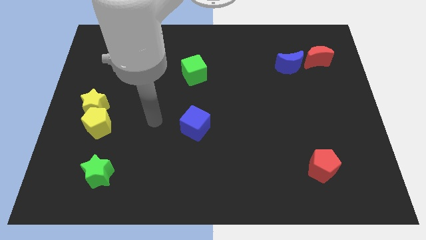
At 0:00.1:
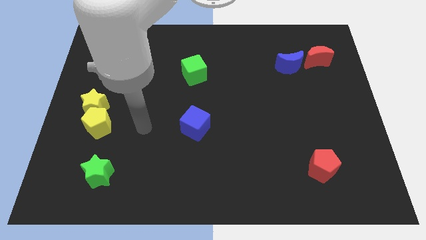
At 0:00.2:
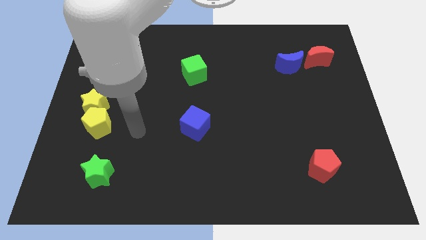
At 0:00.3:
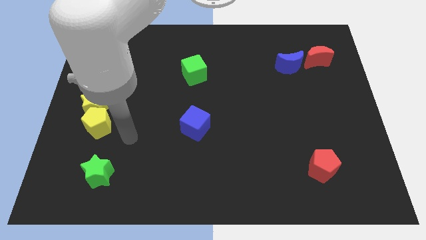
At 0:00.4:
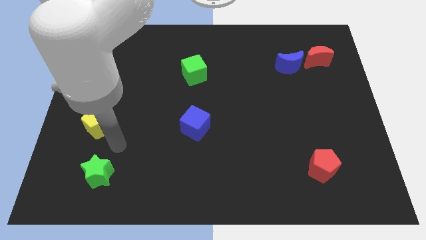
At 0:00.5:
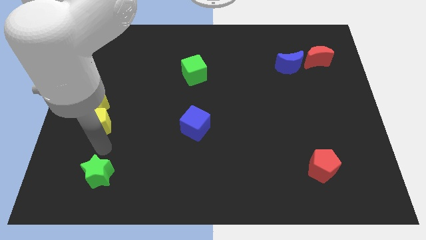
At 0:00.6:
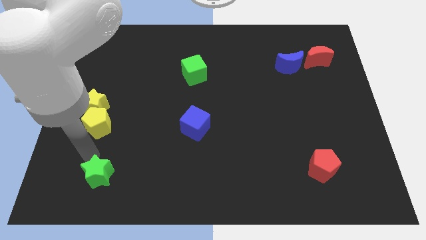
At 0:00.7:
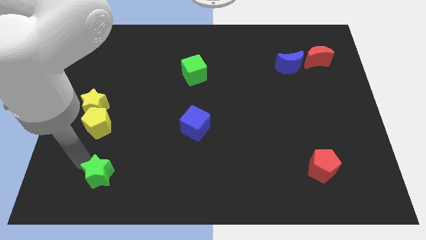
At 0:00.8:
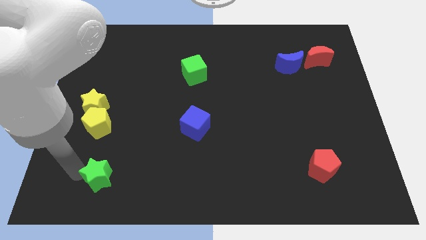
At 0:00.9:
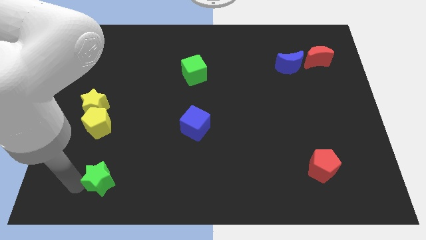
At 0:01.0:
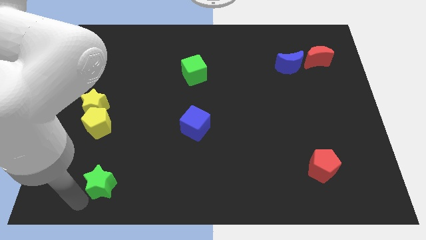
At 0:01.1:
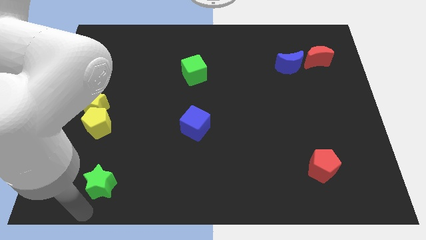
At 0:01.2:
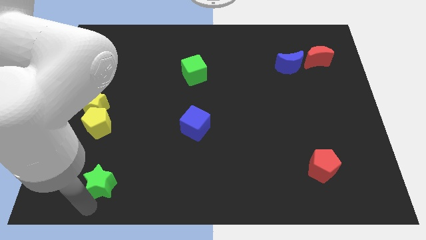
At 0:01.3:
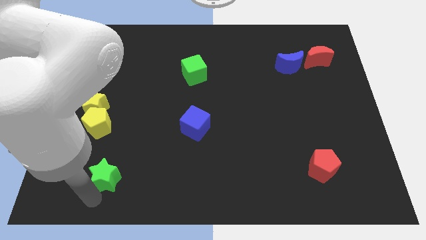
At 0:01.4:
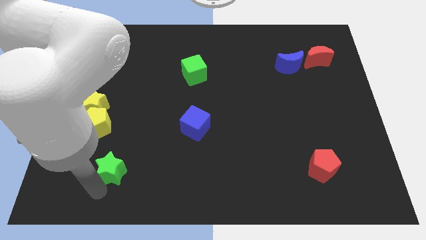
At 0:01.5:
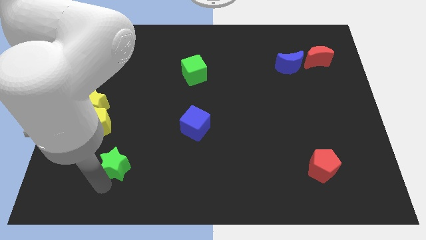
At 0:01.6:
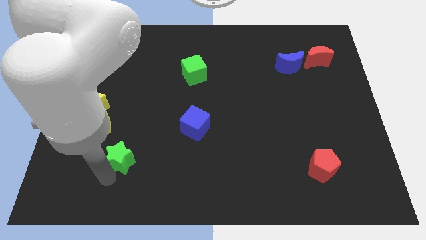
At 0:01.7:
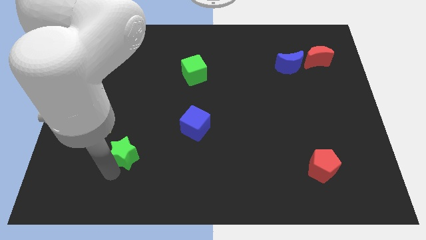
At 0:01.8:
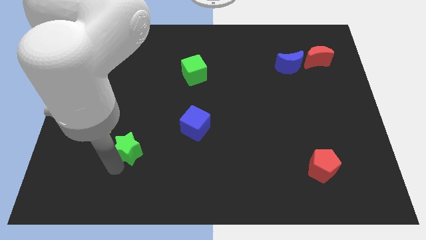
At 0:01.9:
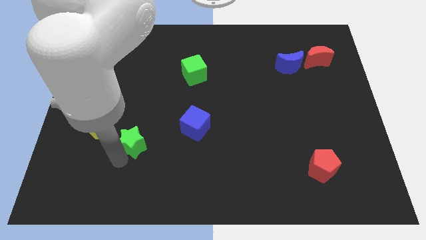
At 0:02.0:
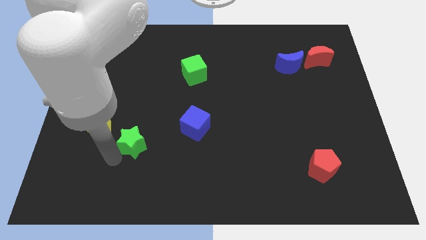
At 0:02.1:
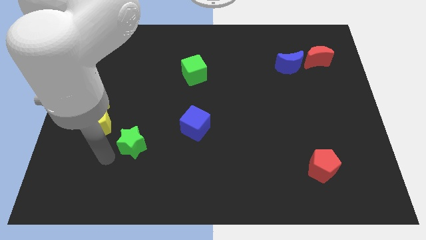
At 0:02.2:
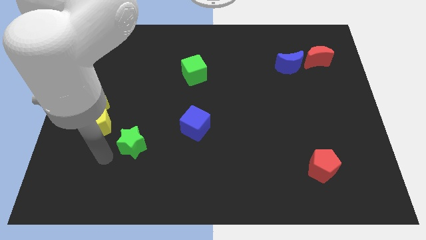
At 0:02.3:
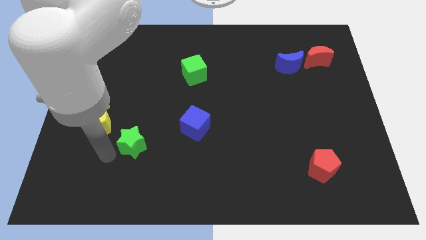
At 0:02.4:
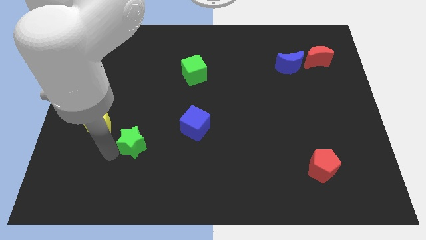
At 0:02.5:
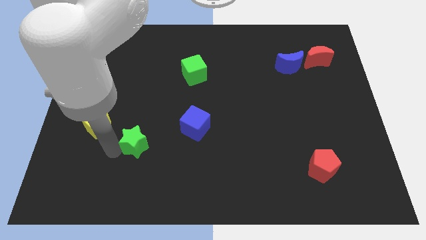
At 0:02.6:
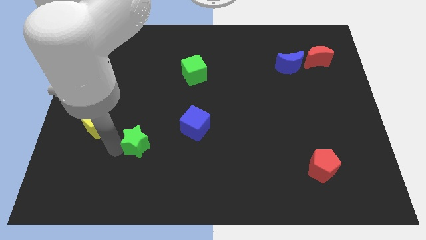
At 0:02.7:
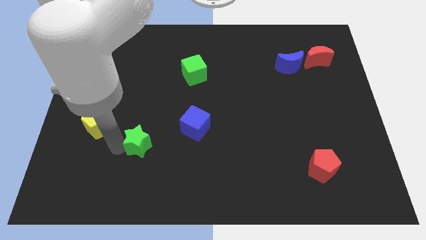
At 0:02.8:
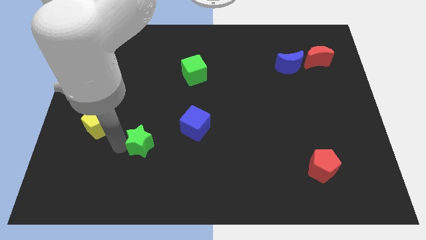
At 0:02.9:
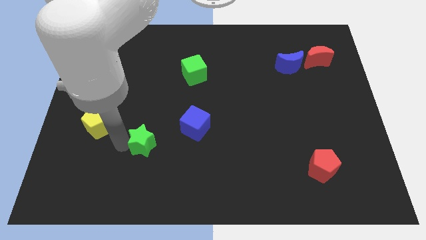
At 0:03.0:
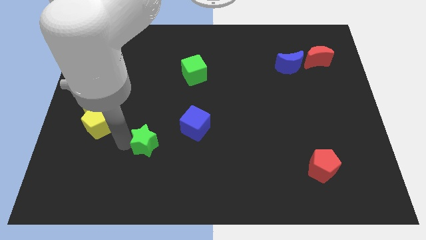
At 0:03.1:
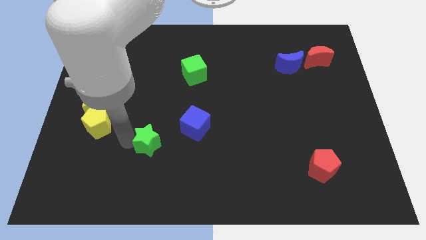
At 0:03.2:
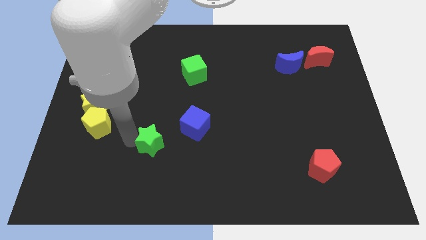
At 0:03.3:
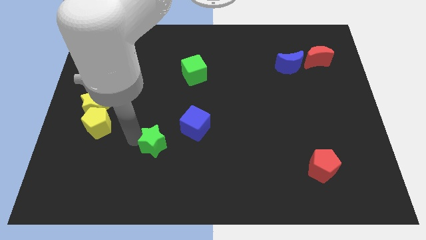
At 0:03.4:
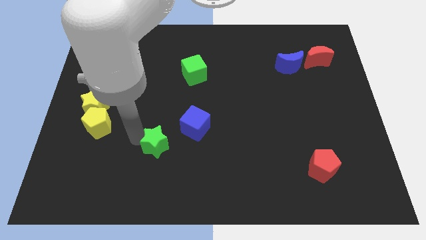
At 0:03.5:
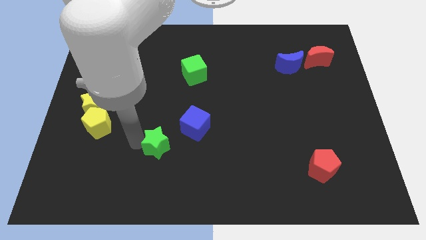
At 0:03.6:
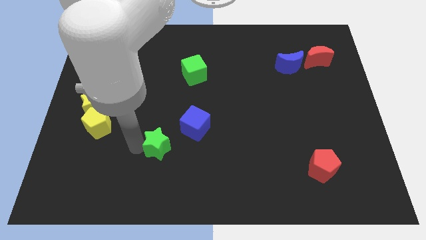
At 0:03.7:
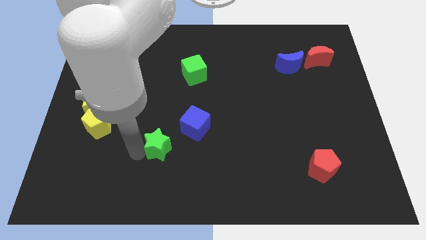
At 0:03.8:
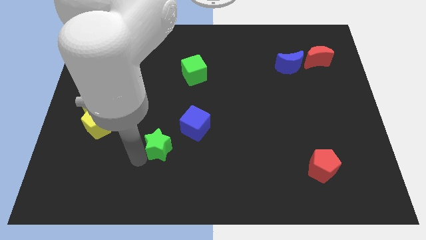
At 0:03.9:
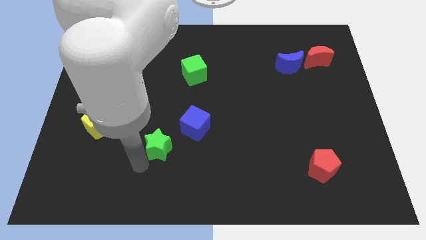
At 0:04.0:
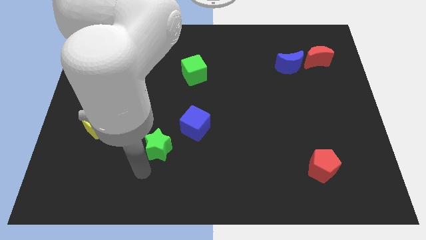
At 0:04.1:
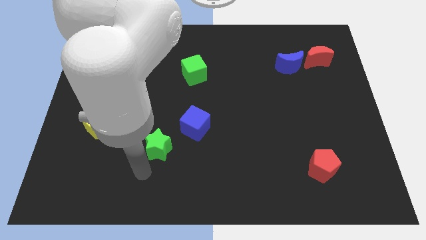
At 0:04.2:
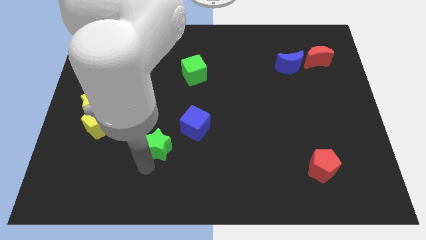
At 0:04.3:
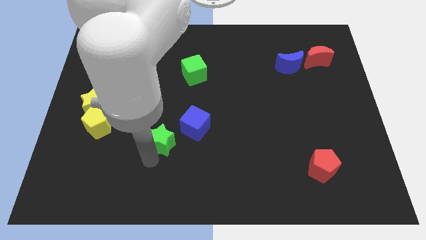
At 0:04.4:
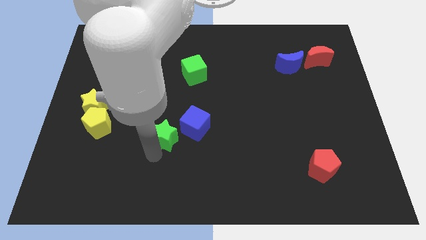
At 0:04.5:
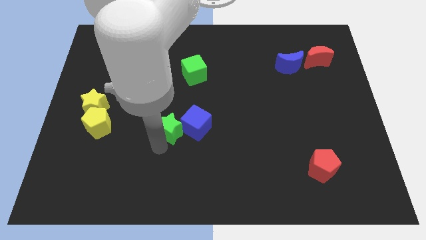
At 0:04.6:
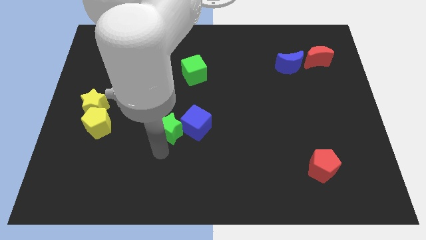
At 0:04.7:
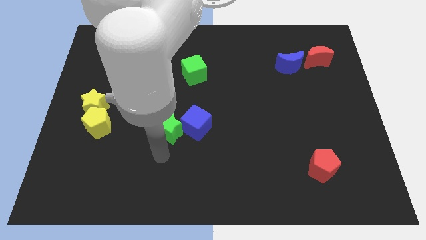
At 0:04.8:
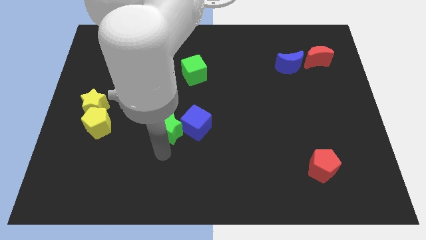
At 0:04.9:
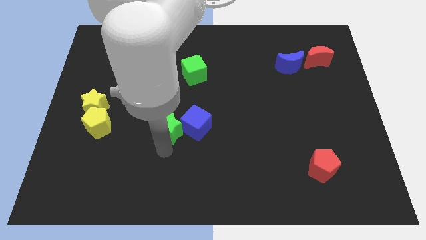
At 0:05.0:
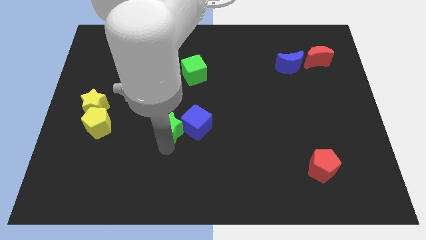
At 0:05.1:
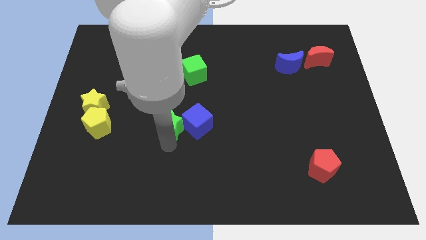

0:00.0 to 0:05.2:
move the green star to the center

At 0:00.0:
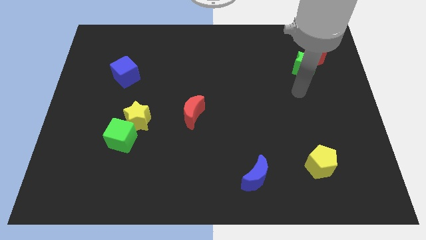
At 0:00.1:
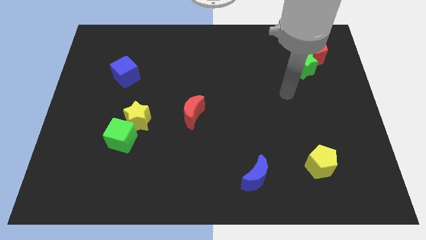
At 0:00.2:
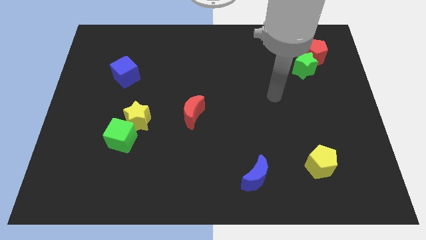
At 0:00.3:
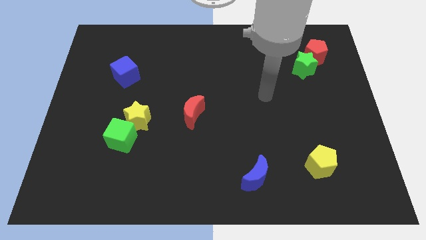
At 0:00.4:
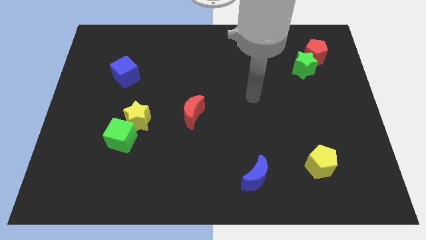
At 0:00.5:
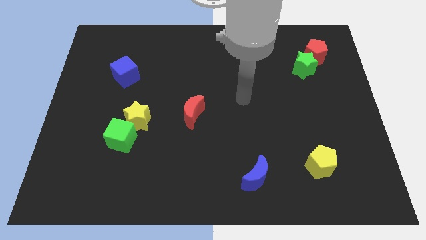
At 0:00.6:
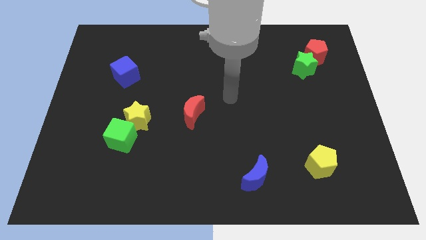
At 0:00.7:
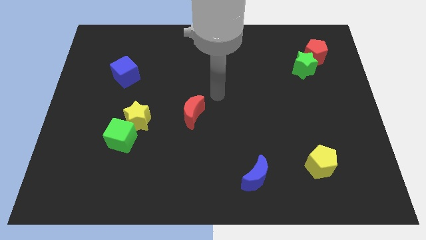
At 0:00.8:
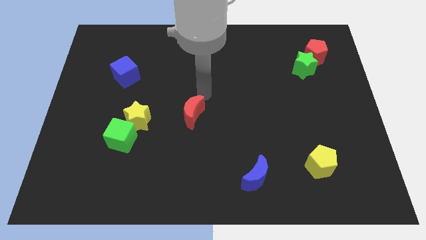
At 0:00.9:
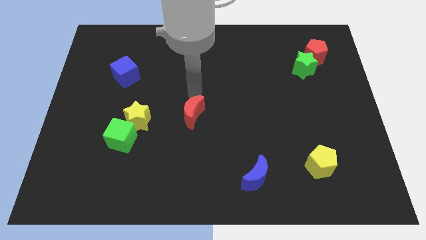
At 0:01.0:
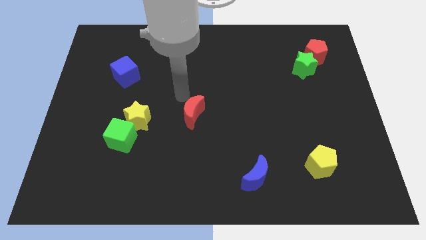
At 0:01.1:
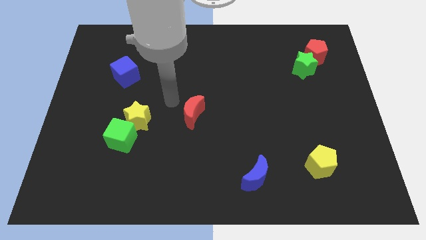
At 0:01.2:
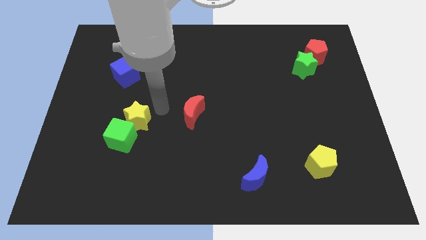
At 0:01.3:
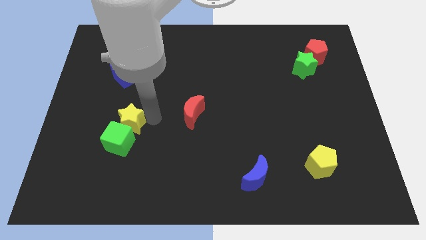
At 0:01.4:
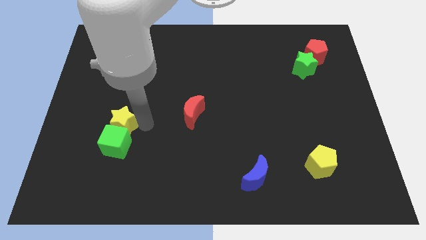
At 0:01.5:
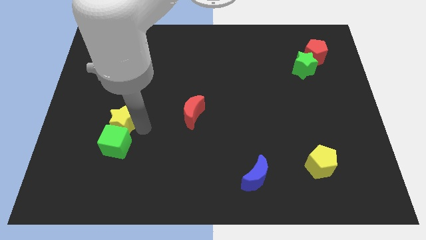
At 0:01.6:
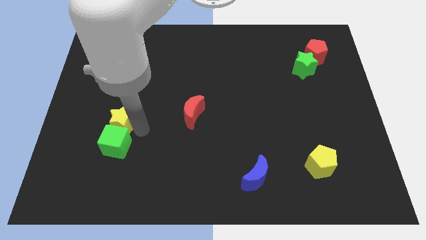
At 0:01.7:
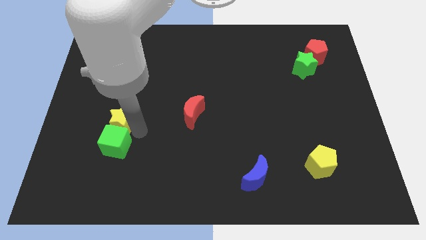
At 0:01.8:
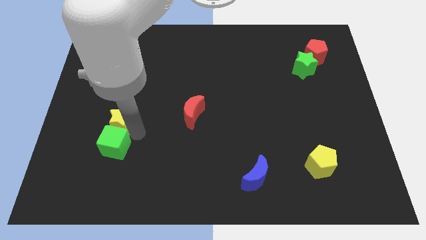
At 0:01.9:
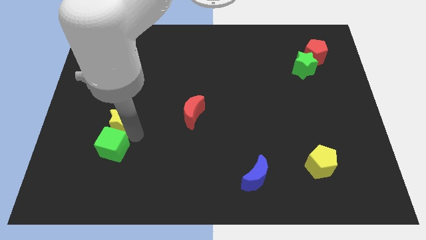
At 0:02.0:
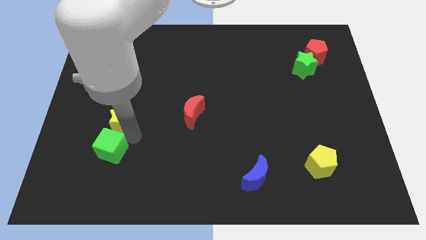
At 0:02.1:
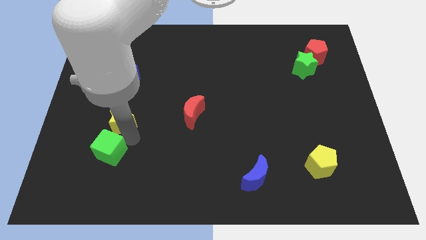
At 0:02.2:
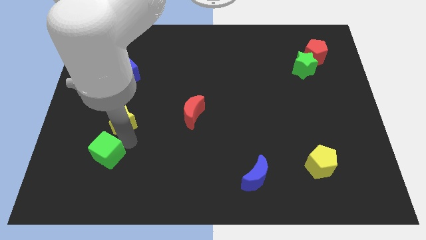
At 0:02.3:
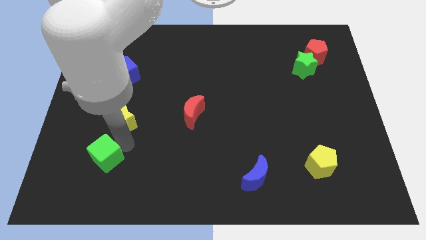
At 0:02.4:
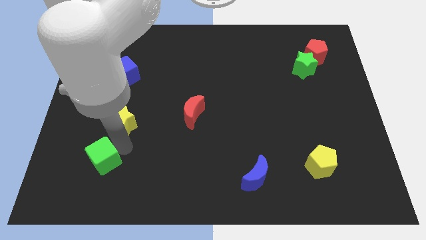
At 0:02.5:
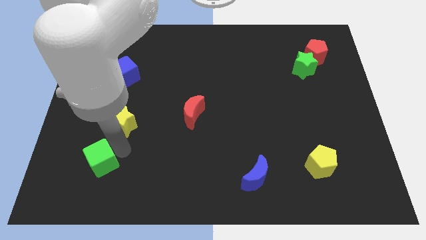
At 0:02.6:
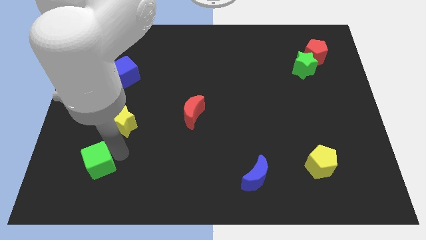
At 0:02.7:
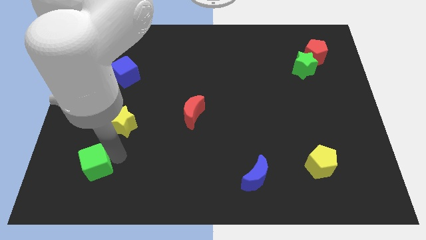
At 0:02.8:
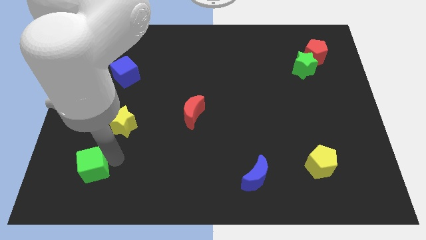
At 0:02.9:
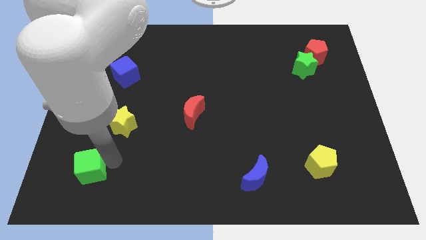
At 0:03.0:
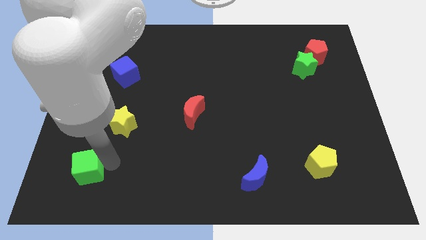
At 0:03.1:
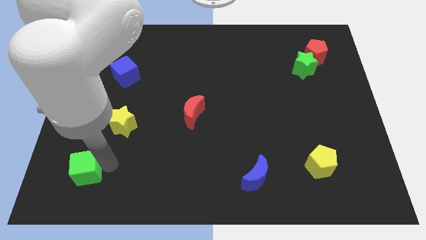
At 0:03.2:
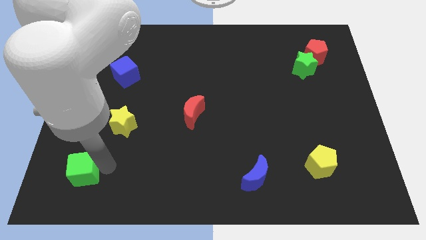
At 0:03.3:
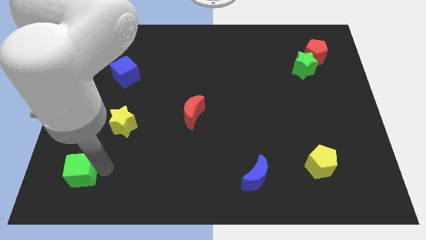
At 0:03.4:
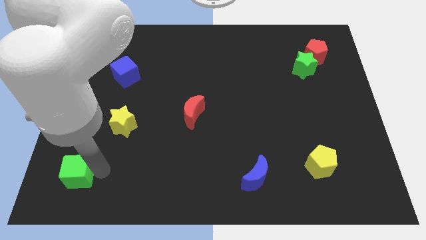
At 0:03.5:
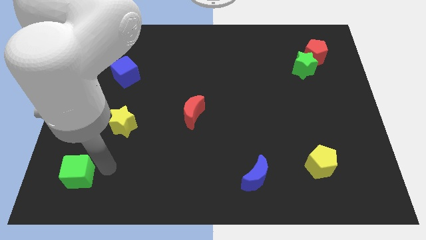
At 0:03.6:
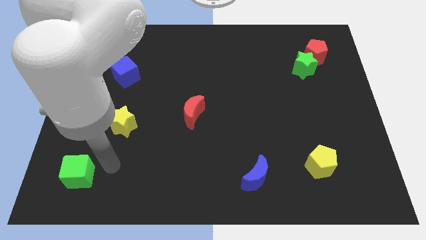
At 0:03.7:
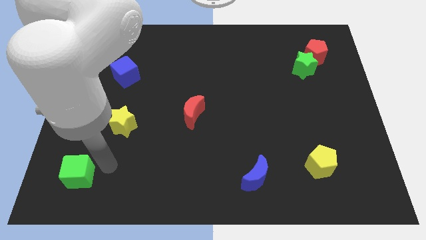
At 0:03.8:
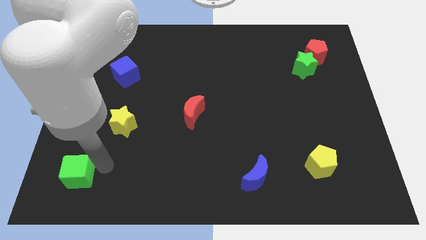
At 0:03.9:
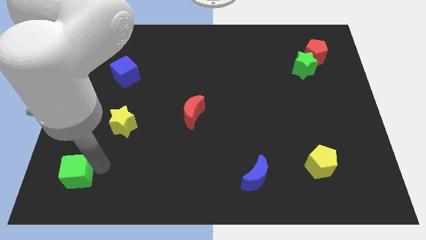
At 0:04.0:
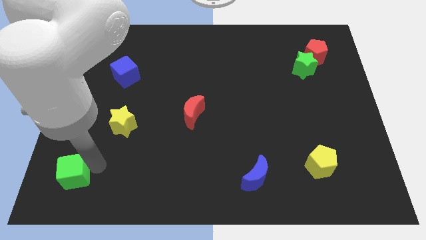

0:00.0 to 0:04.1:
put the green cube to the bottom left
